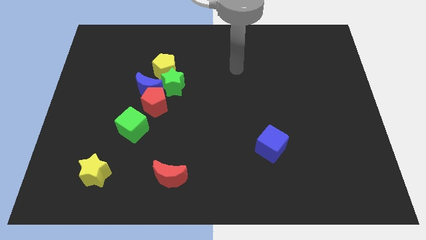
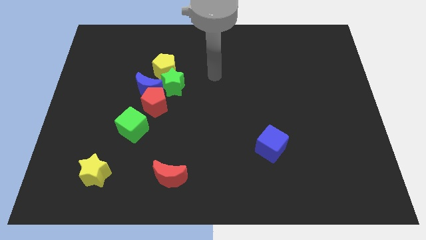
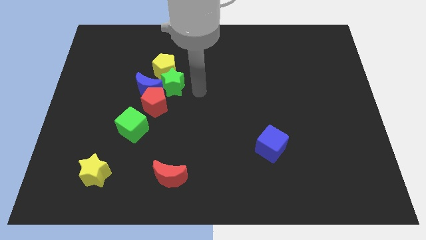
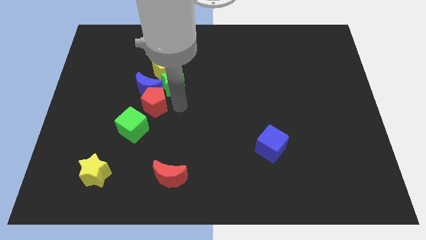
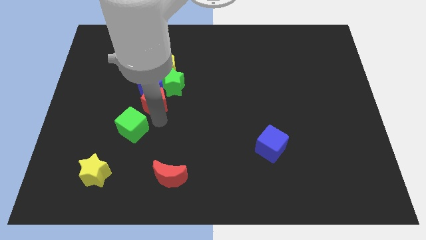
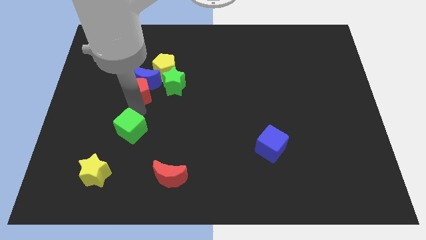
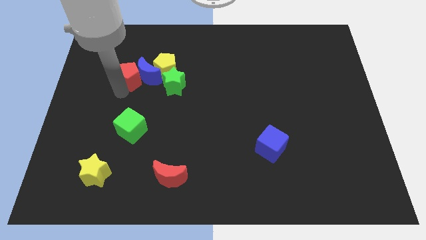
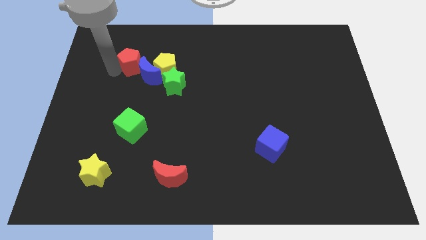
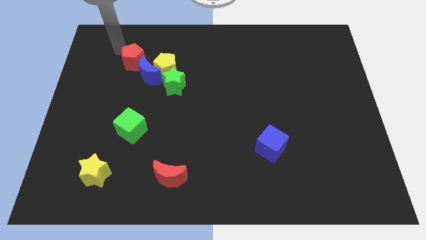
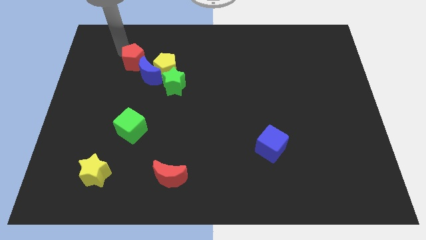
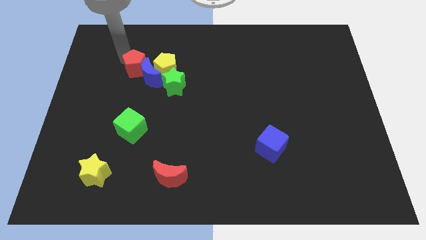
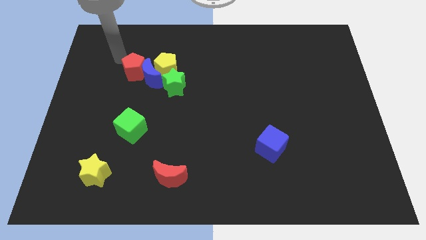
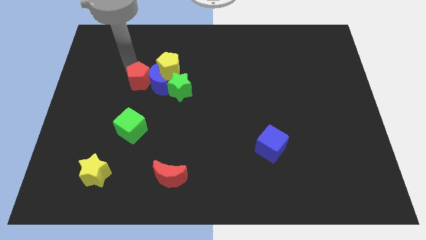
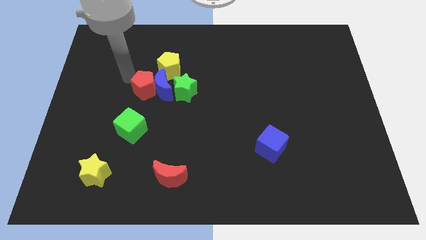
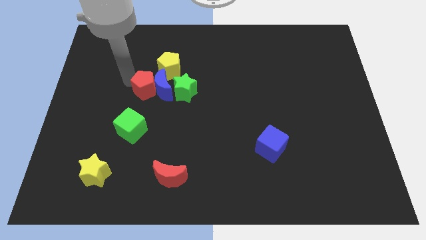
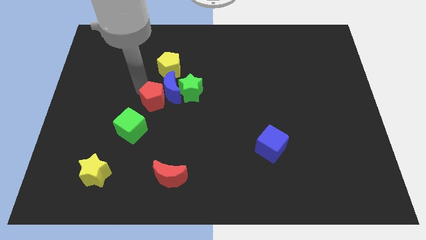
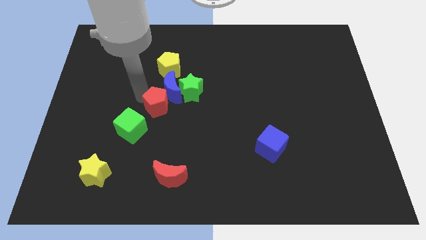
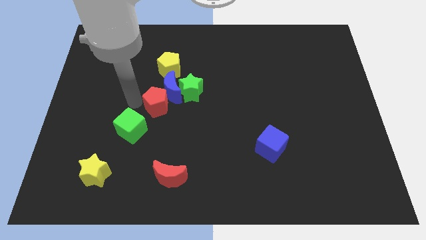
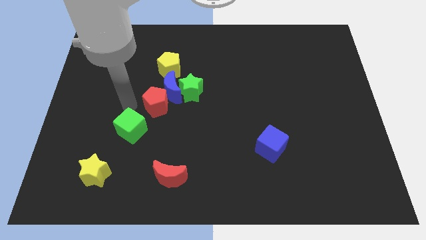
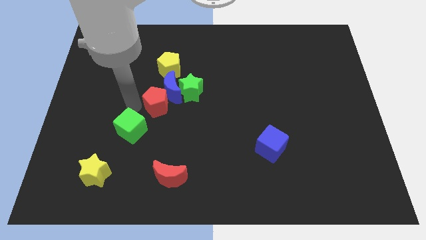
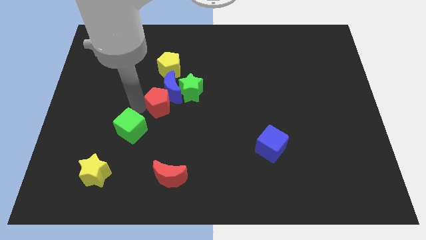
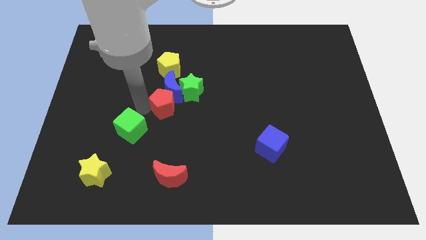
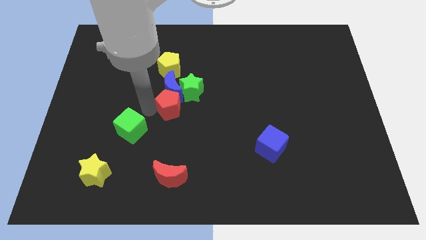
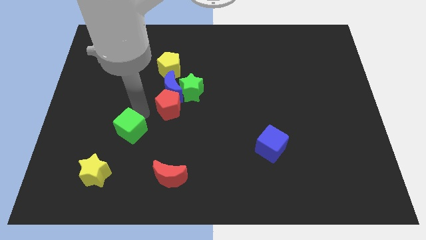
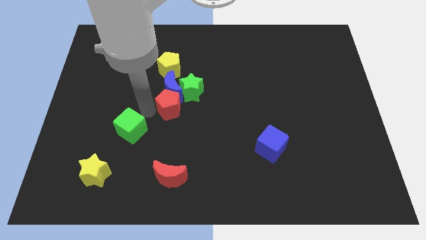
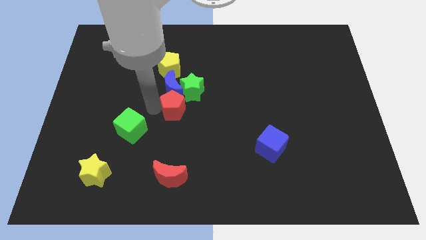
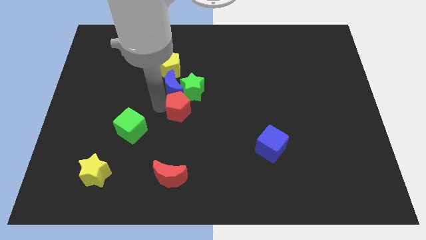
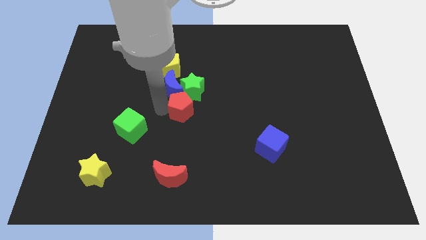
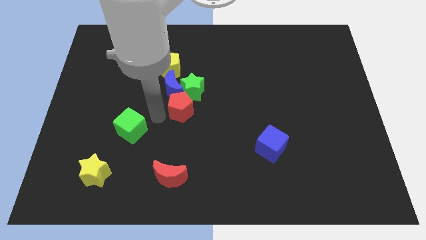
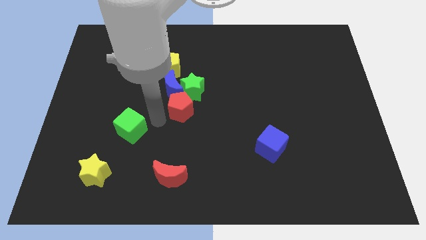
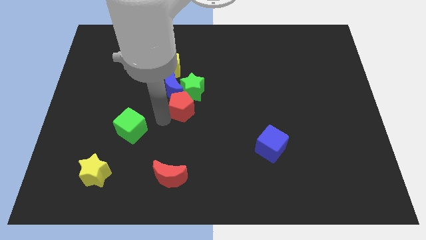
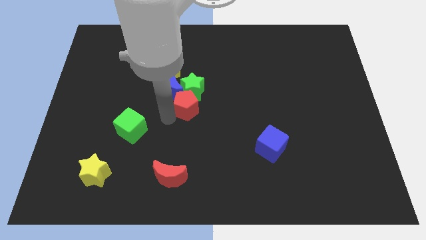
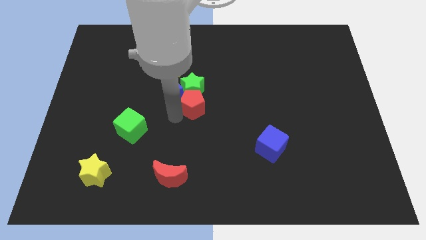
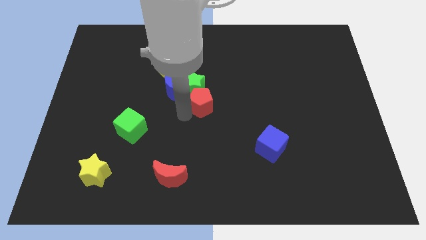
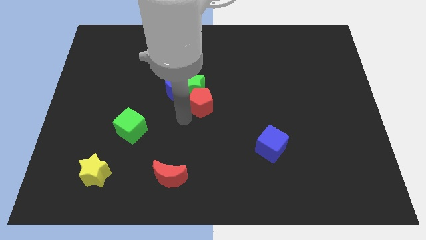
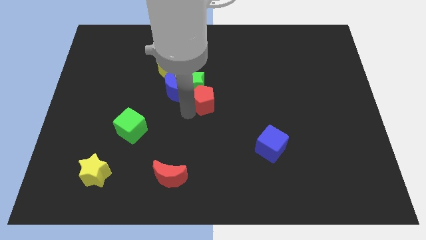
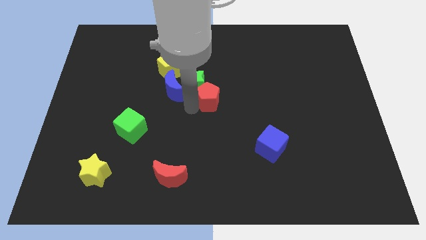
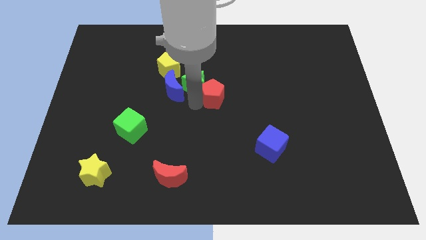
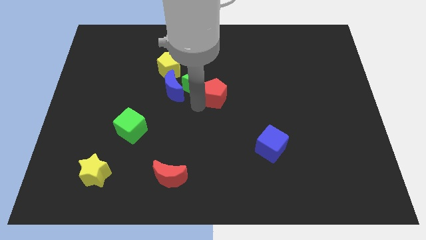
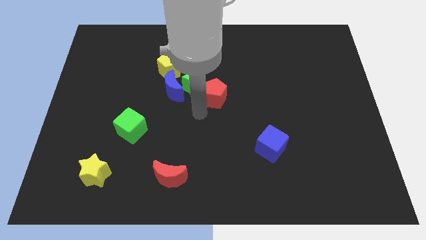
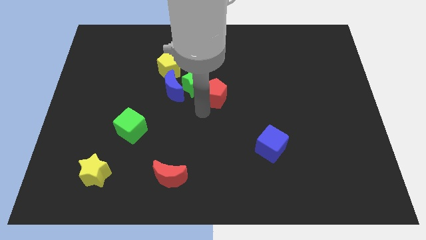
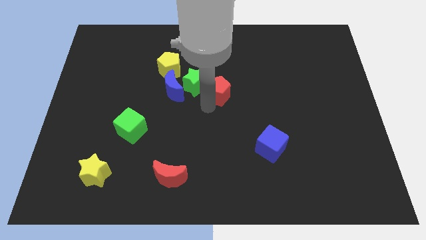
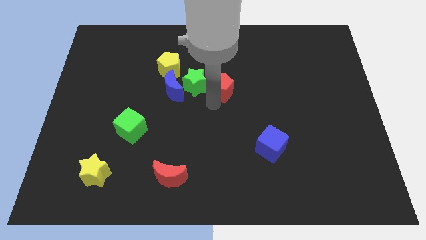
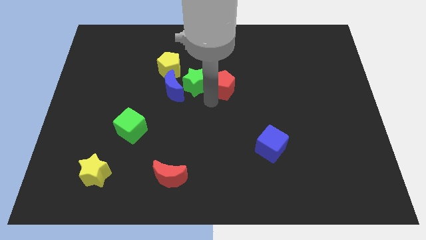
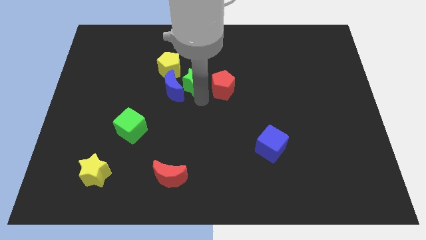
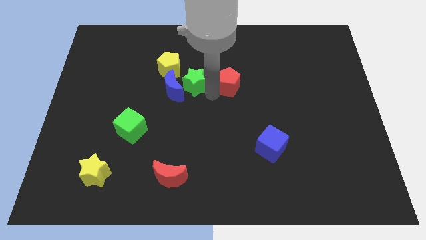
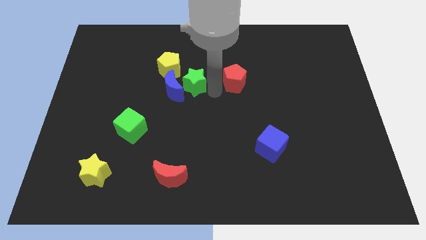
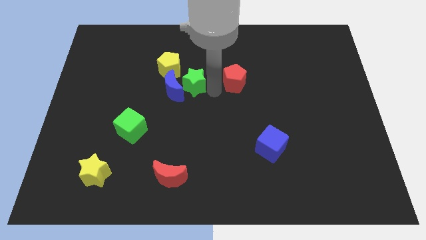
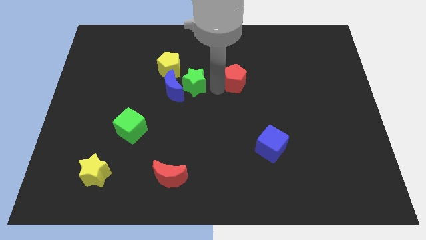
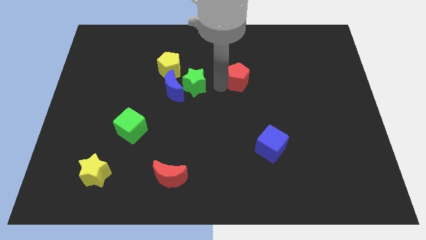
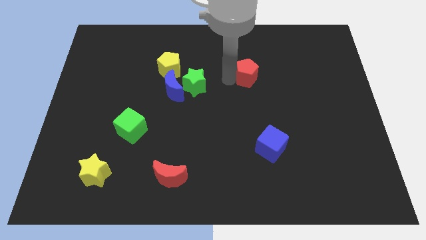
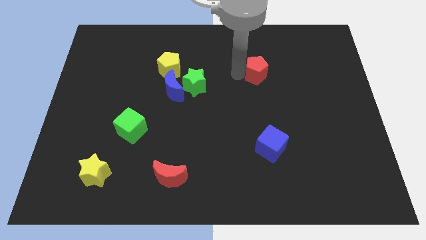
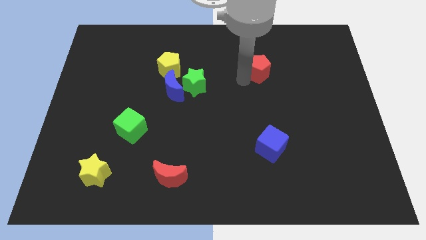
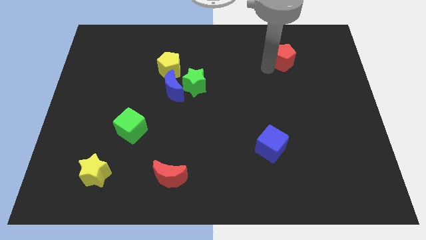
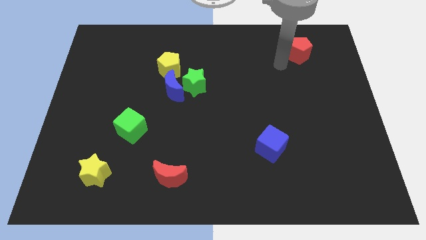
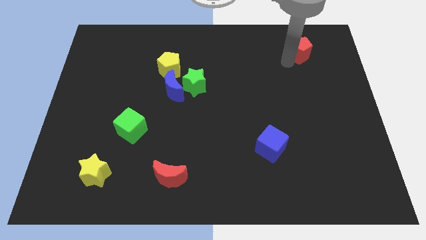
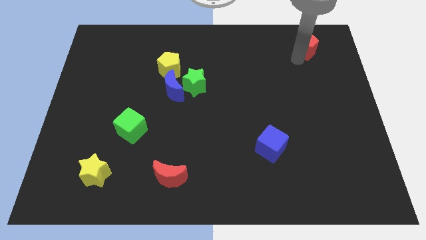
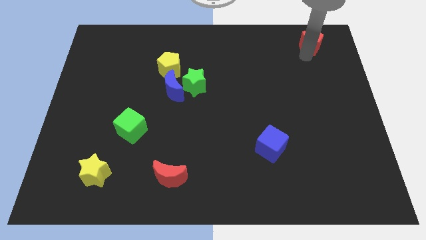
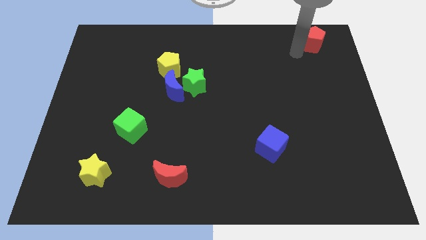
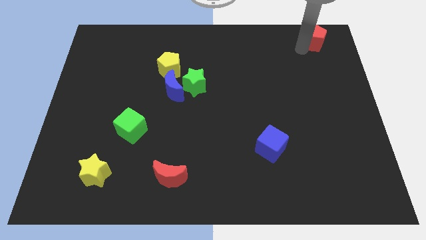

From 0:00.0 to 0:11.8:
put the red pentagon to the top right of the board

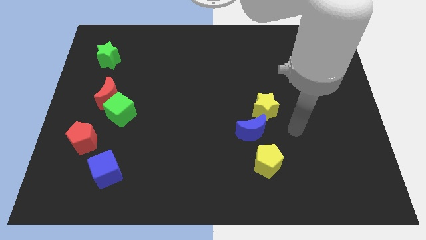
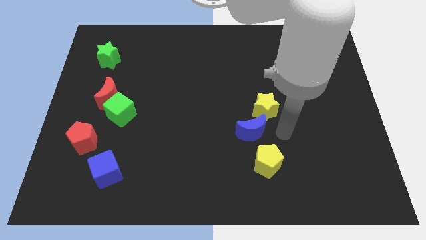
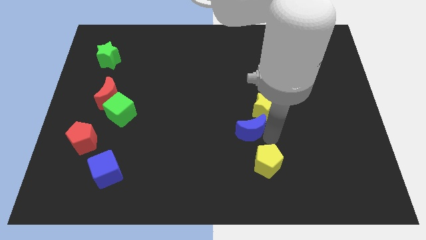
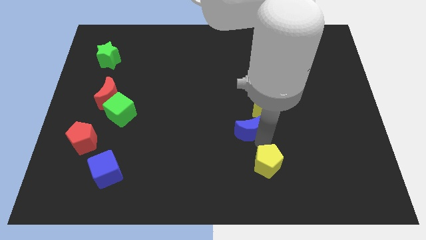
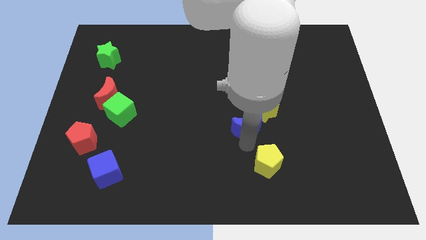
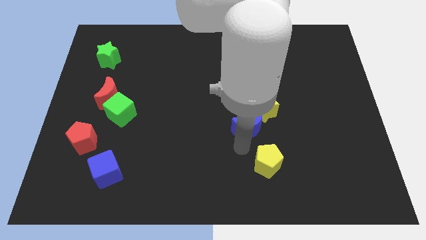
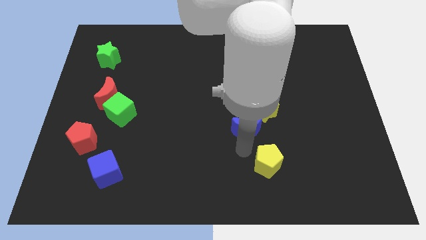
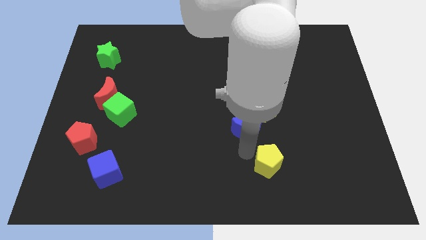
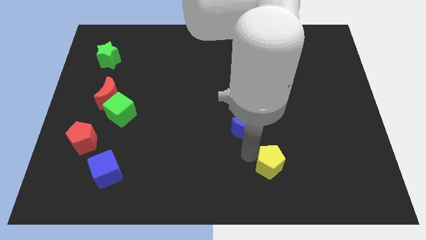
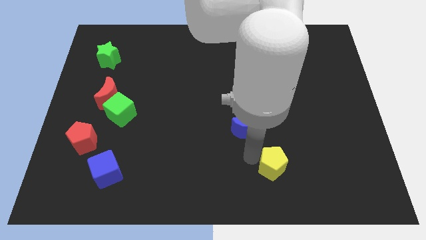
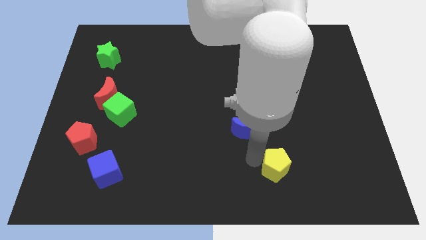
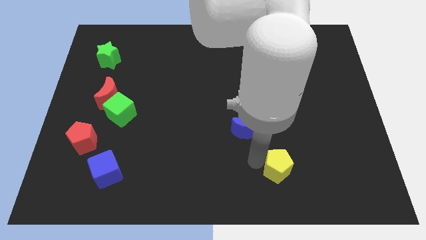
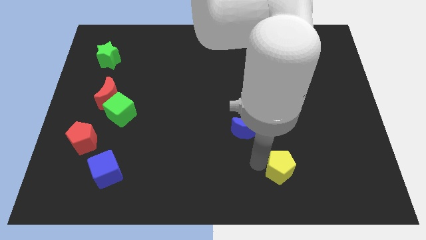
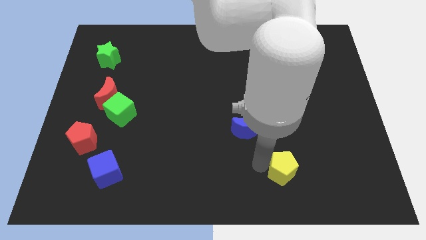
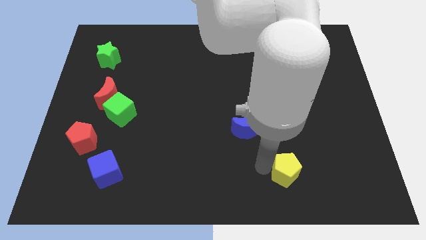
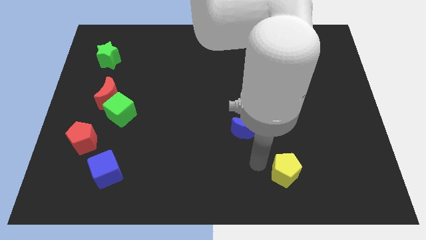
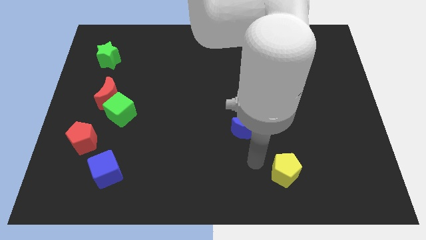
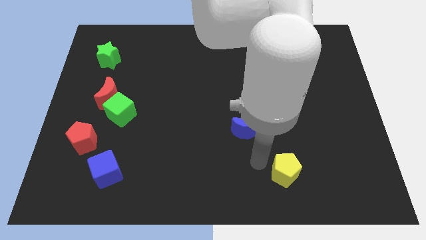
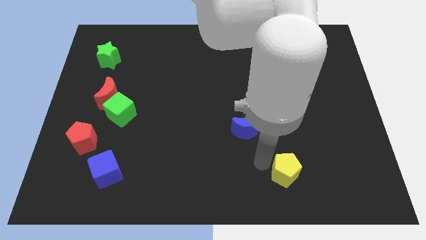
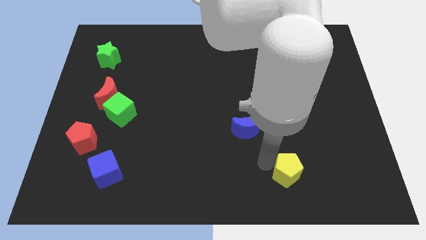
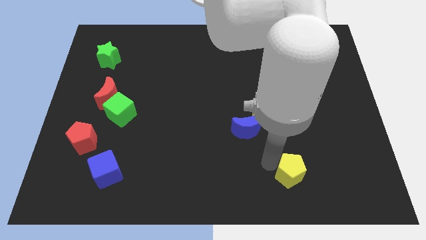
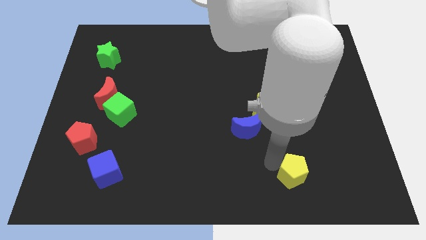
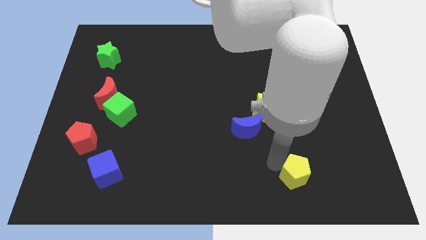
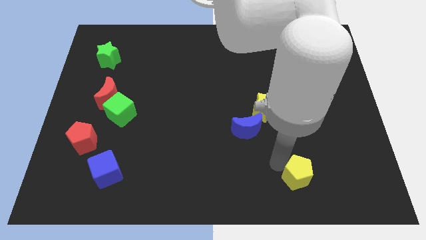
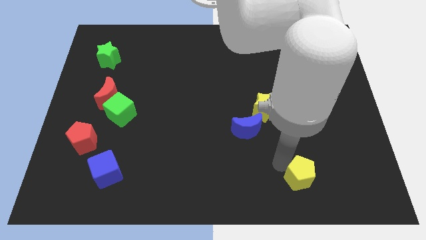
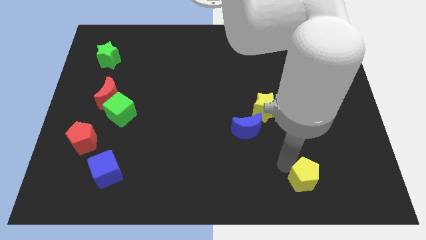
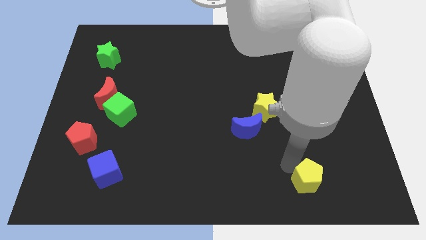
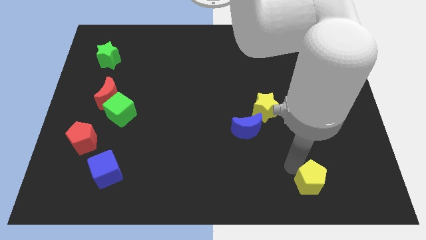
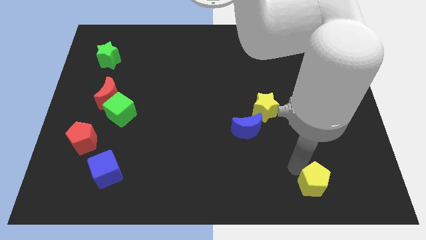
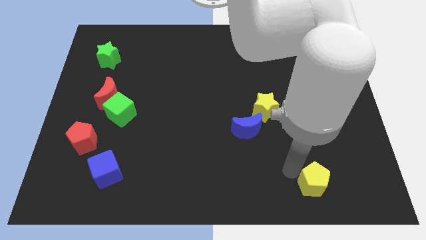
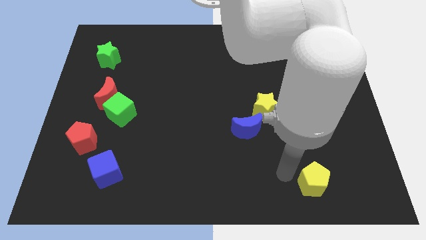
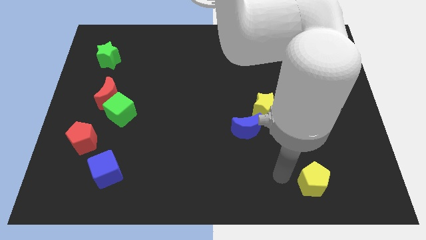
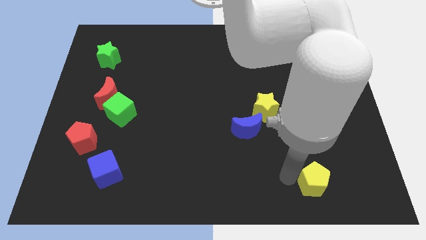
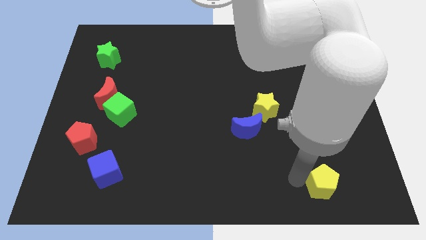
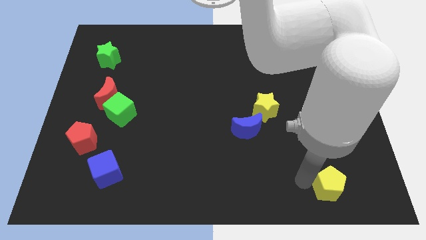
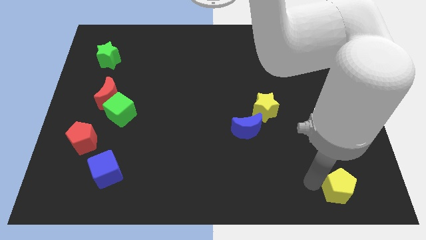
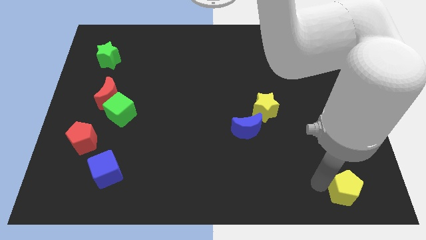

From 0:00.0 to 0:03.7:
move the yellow pentagon to the lower right corner
